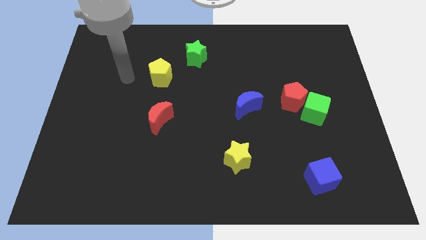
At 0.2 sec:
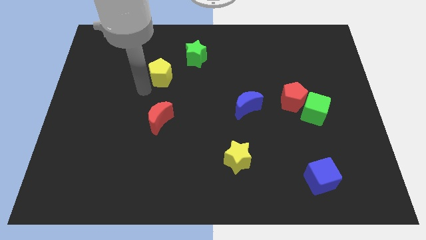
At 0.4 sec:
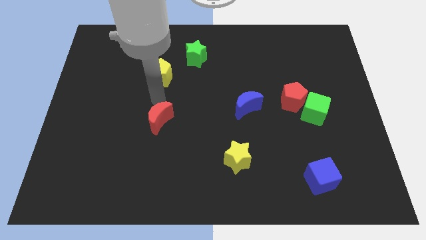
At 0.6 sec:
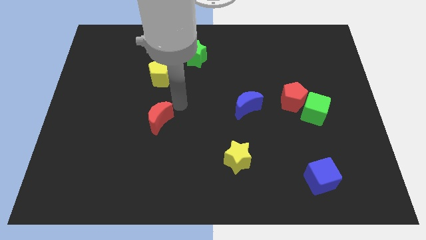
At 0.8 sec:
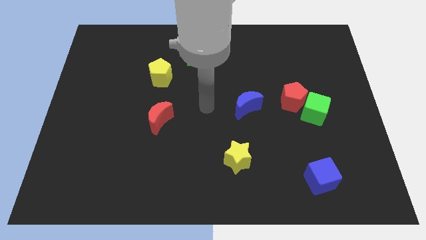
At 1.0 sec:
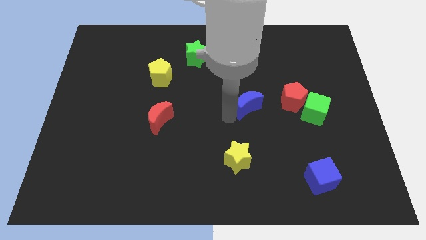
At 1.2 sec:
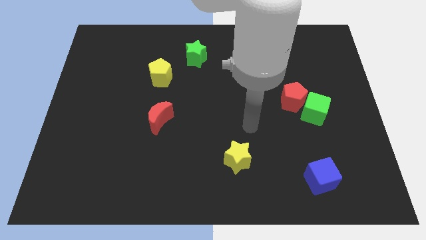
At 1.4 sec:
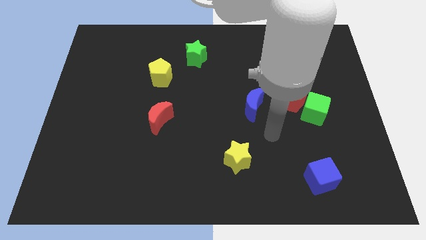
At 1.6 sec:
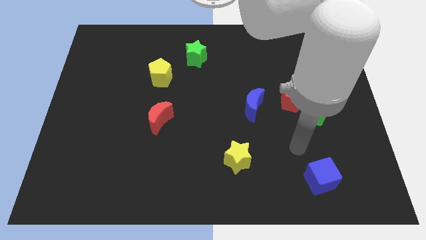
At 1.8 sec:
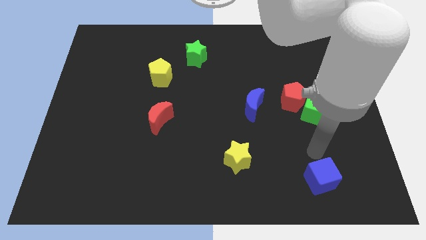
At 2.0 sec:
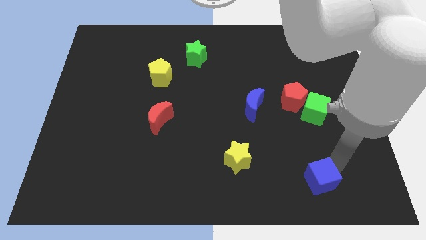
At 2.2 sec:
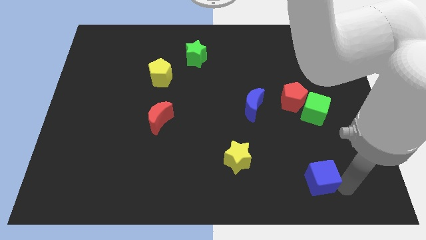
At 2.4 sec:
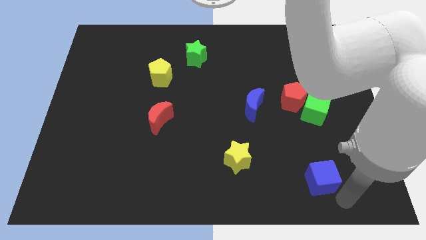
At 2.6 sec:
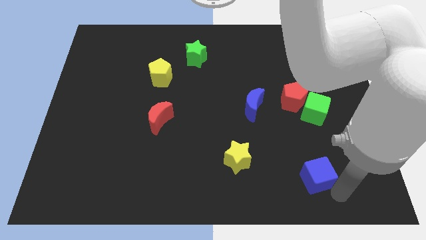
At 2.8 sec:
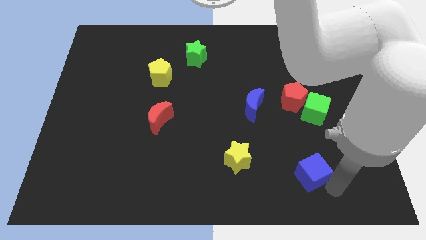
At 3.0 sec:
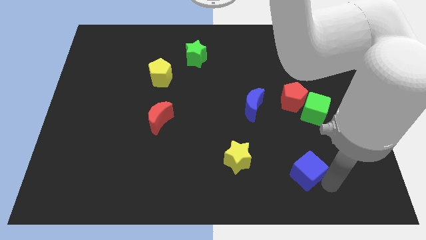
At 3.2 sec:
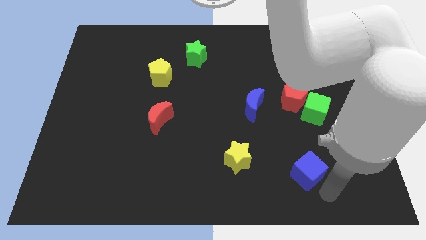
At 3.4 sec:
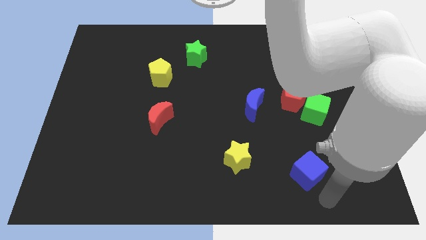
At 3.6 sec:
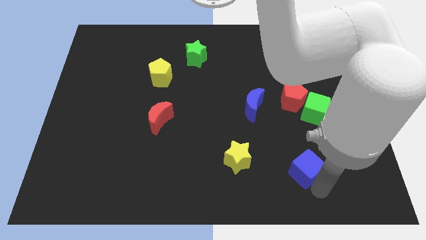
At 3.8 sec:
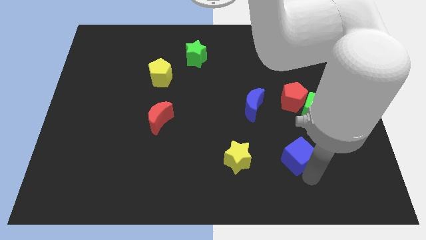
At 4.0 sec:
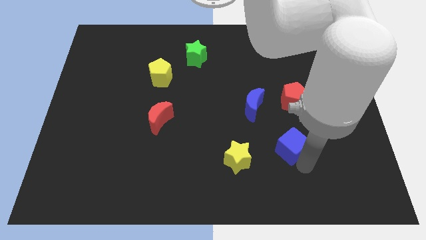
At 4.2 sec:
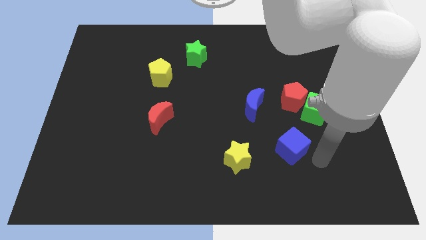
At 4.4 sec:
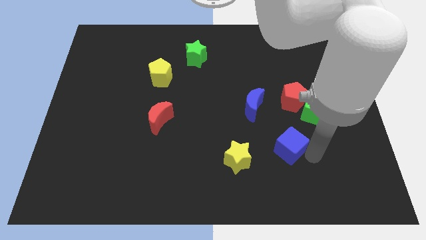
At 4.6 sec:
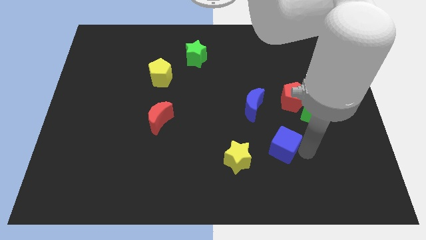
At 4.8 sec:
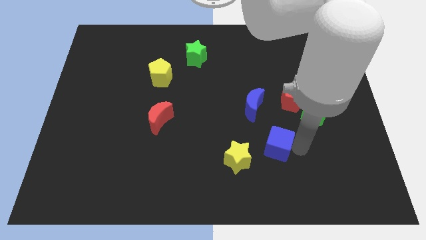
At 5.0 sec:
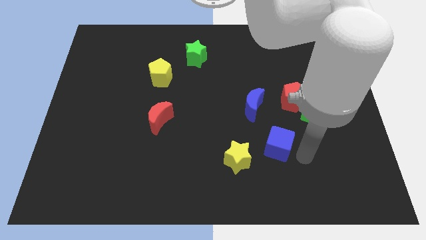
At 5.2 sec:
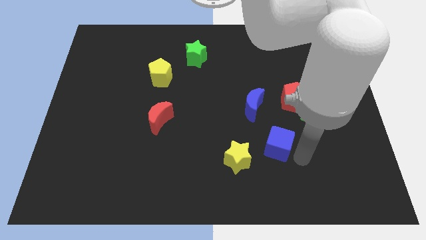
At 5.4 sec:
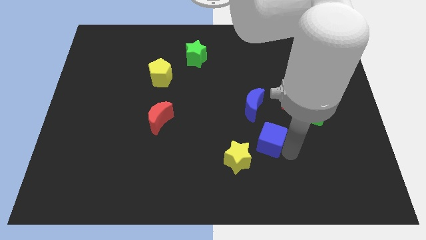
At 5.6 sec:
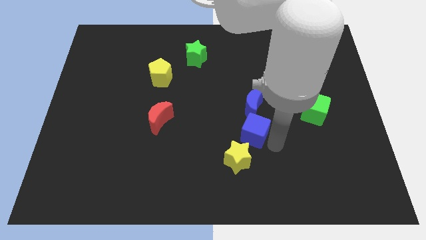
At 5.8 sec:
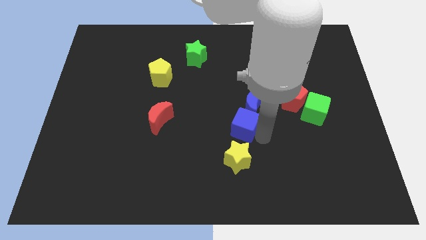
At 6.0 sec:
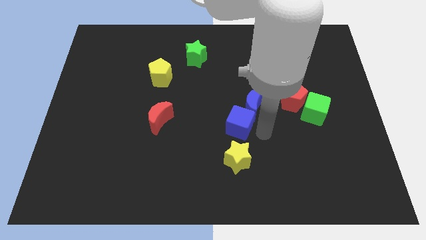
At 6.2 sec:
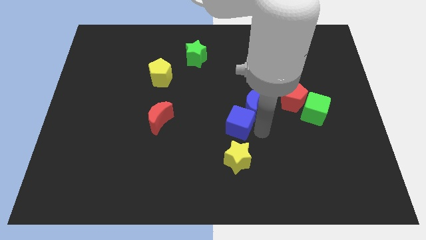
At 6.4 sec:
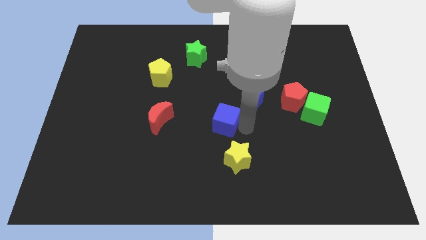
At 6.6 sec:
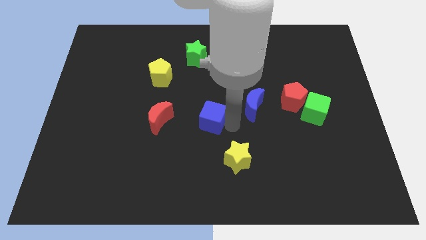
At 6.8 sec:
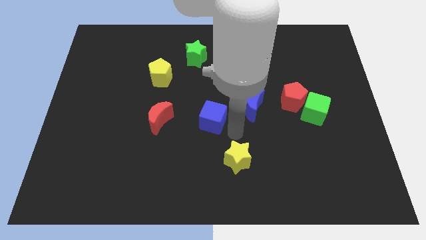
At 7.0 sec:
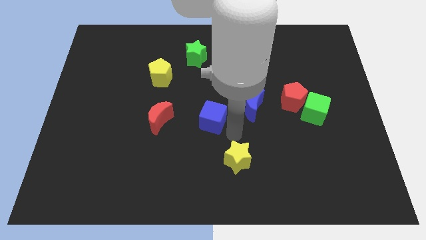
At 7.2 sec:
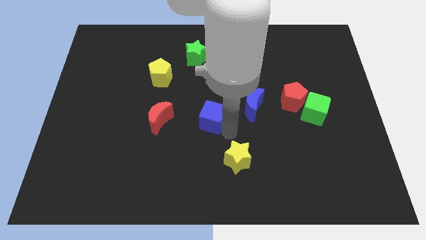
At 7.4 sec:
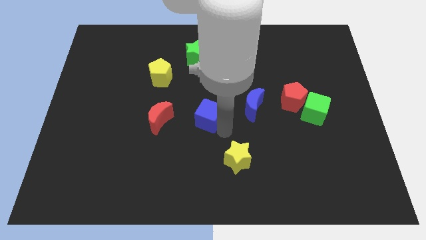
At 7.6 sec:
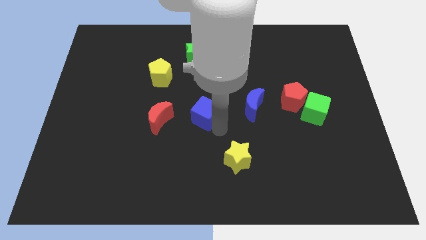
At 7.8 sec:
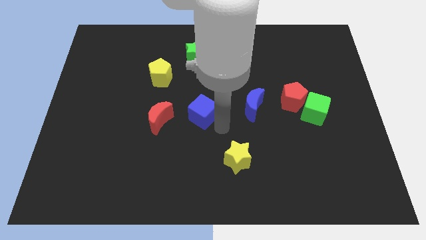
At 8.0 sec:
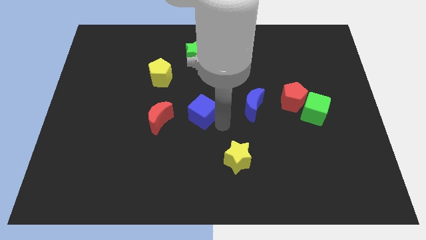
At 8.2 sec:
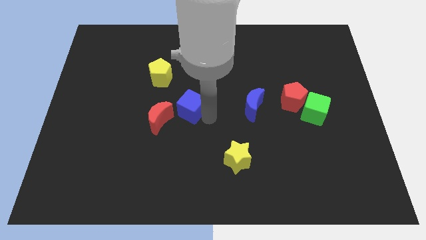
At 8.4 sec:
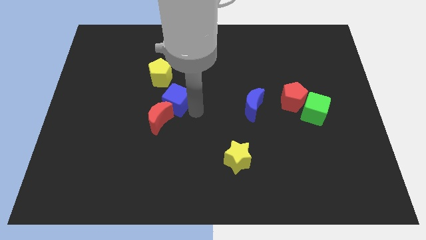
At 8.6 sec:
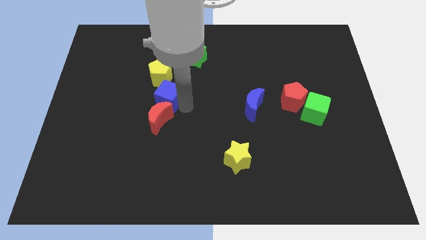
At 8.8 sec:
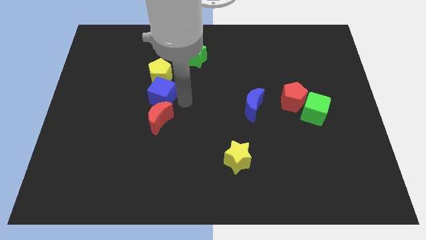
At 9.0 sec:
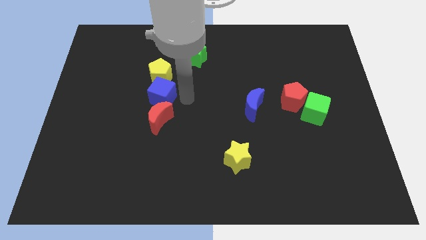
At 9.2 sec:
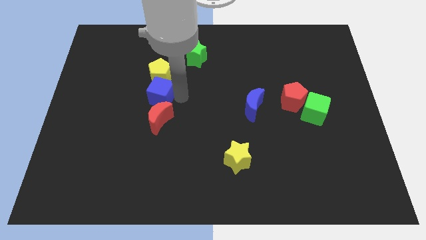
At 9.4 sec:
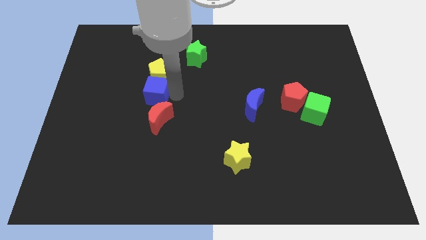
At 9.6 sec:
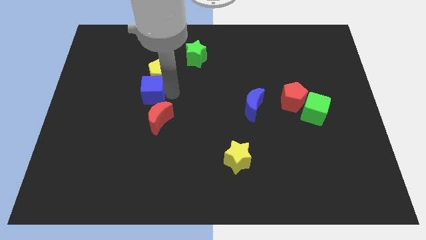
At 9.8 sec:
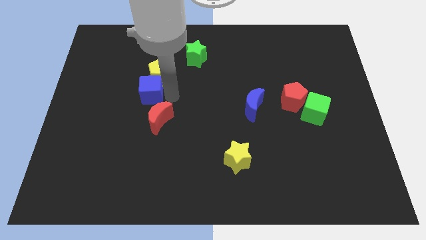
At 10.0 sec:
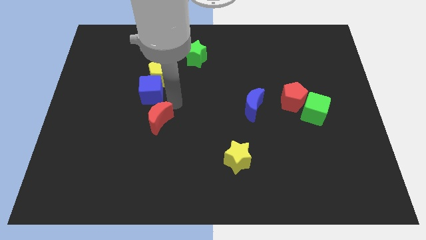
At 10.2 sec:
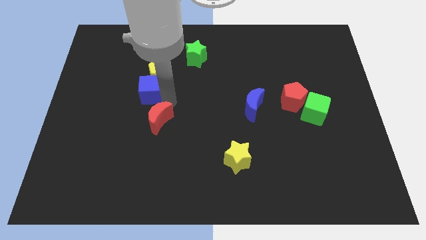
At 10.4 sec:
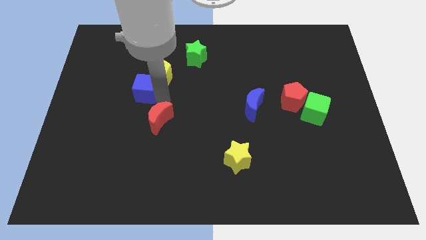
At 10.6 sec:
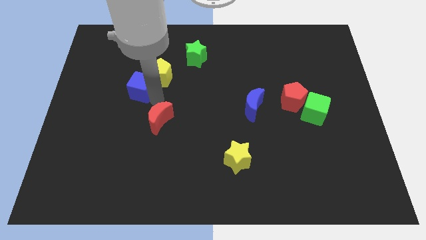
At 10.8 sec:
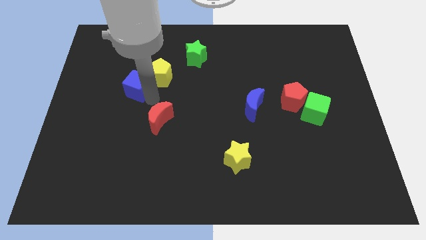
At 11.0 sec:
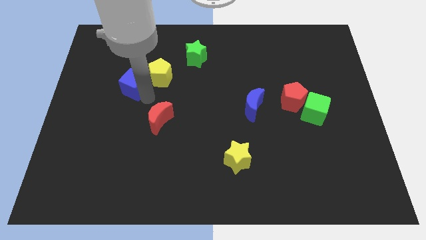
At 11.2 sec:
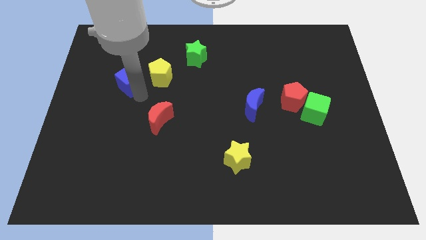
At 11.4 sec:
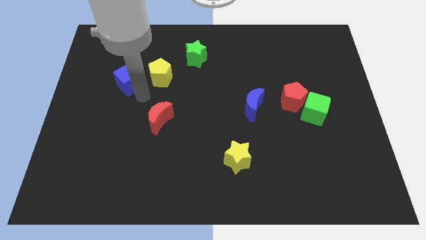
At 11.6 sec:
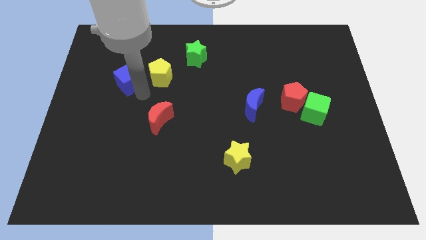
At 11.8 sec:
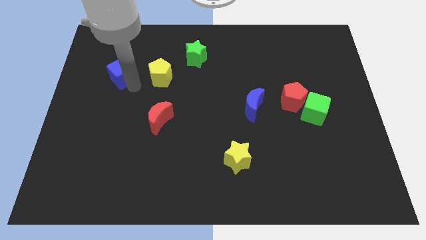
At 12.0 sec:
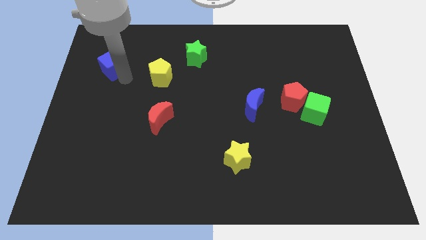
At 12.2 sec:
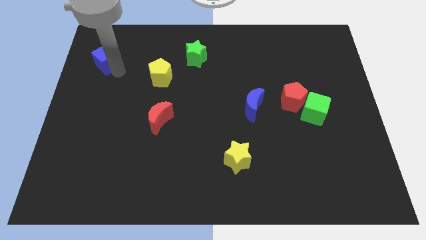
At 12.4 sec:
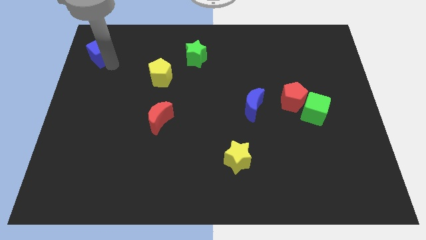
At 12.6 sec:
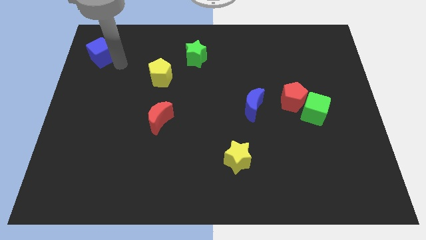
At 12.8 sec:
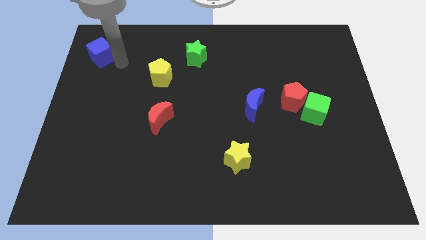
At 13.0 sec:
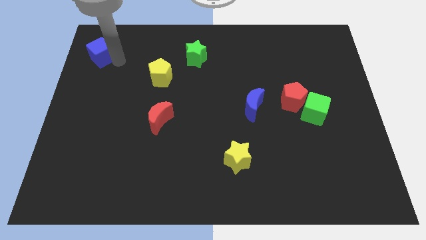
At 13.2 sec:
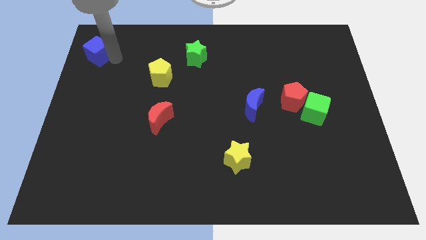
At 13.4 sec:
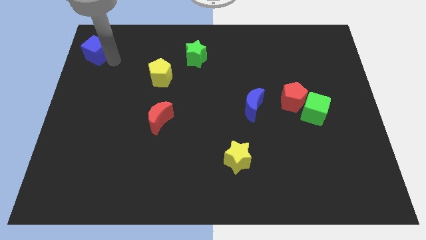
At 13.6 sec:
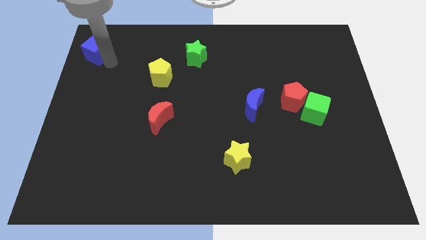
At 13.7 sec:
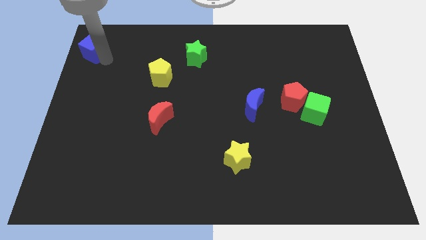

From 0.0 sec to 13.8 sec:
push the blue cube to the upper left corner
